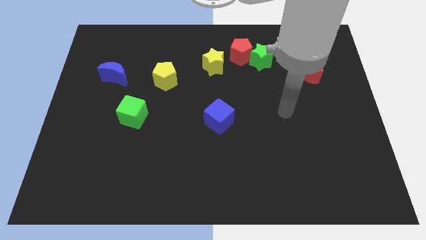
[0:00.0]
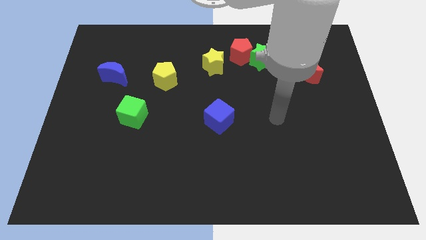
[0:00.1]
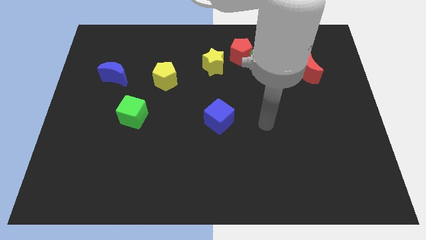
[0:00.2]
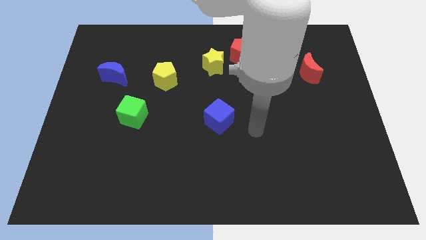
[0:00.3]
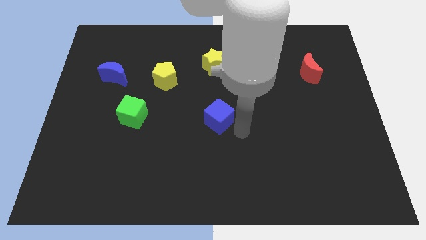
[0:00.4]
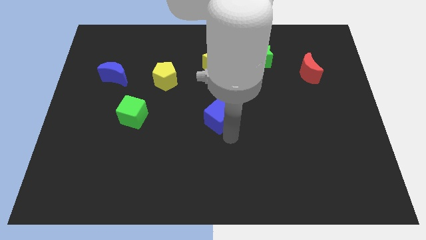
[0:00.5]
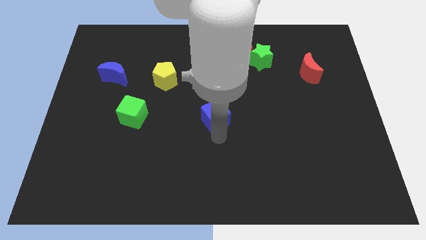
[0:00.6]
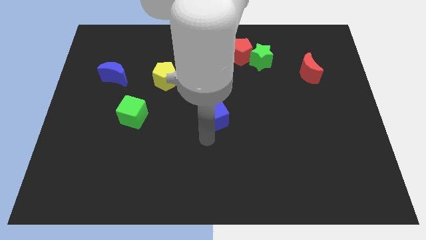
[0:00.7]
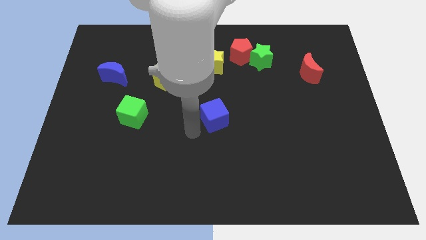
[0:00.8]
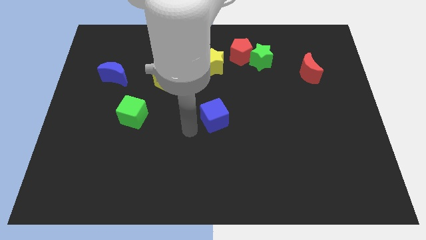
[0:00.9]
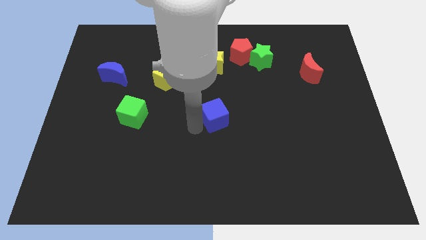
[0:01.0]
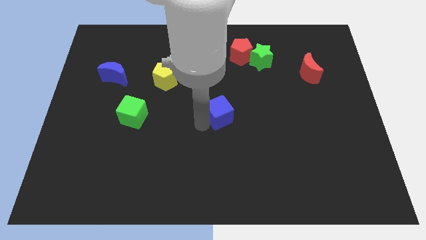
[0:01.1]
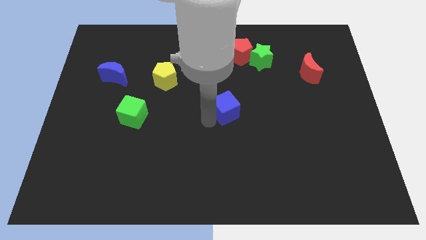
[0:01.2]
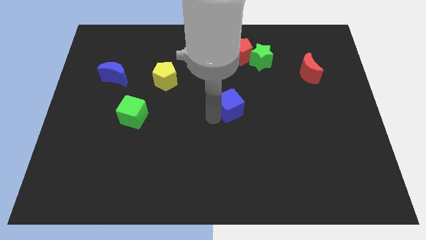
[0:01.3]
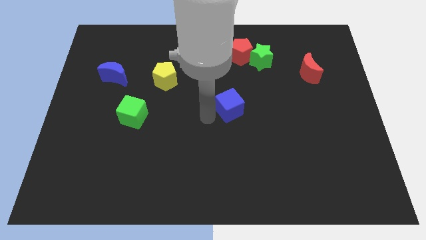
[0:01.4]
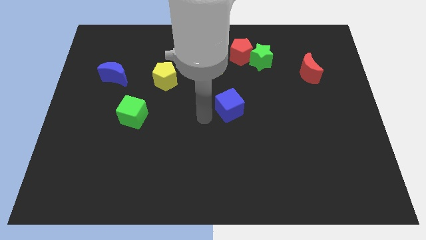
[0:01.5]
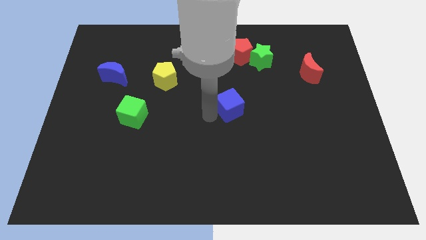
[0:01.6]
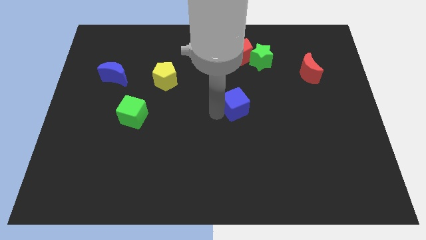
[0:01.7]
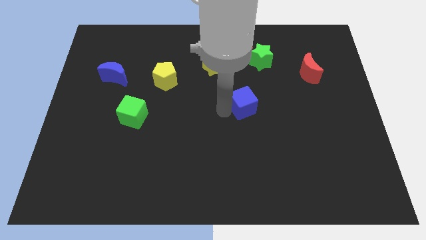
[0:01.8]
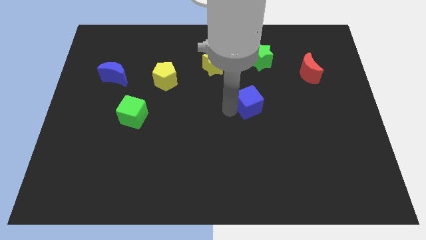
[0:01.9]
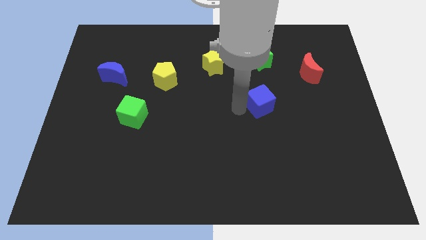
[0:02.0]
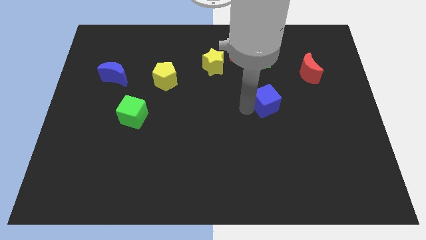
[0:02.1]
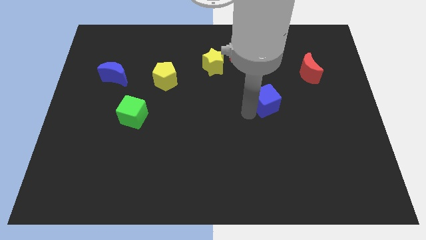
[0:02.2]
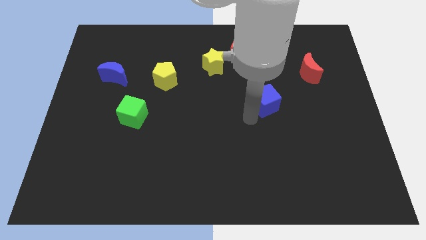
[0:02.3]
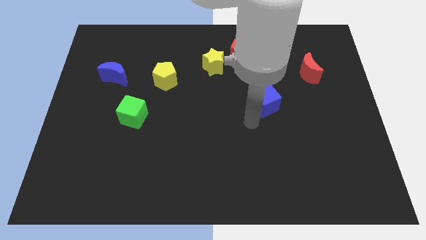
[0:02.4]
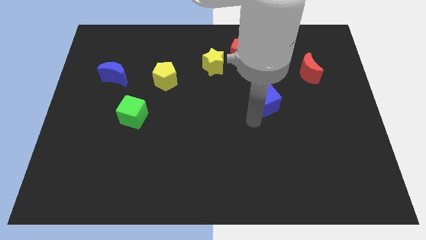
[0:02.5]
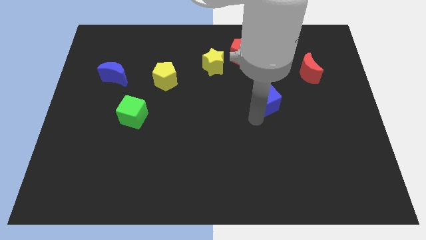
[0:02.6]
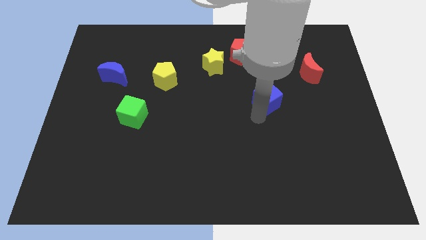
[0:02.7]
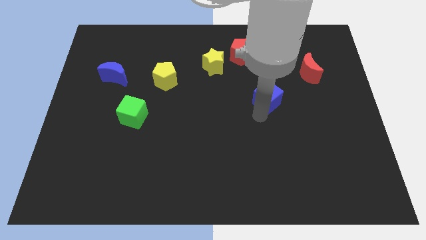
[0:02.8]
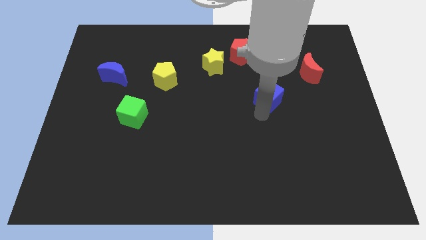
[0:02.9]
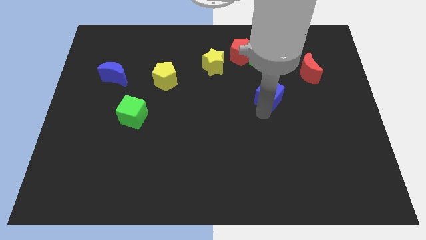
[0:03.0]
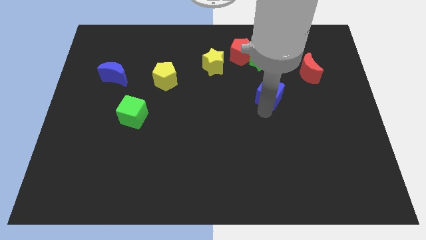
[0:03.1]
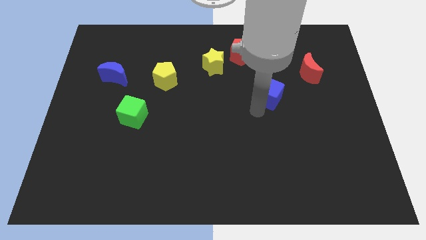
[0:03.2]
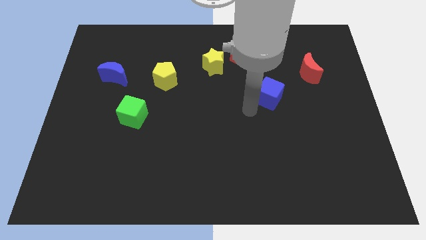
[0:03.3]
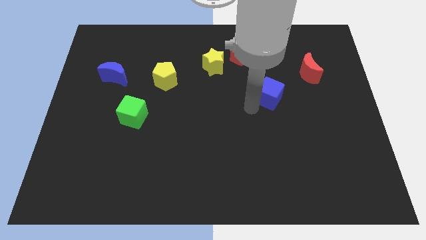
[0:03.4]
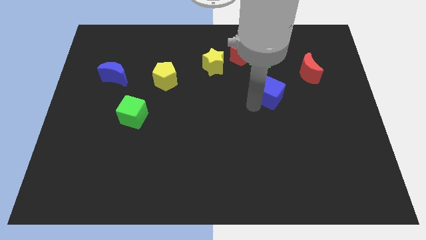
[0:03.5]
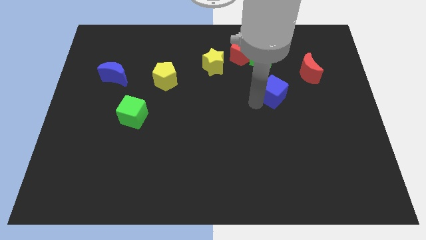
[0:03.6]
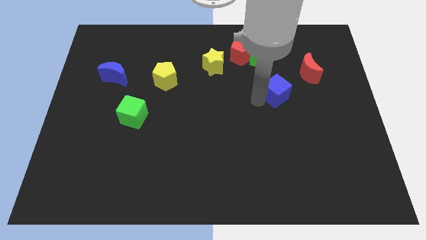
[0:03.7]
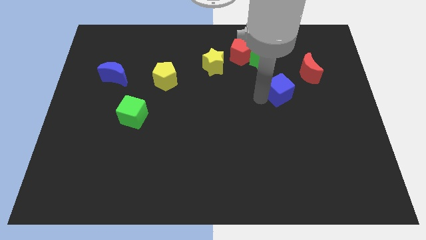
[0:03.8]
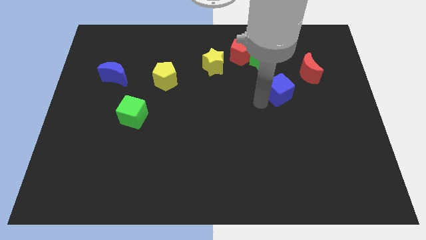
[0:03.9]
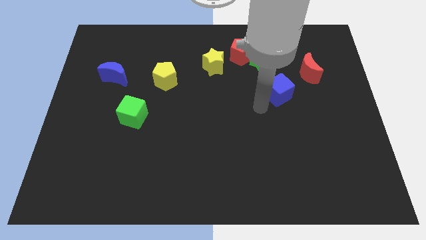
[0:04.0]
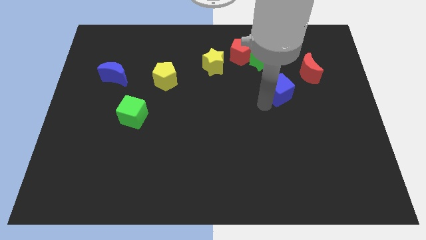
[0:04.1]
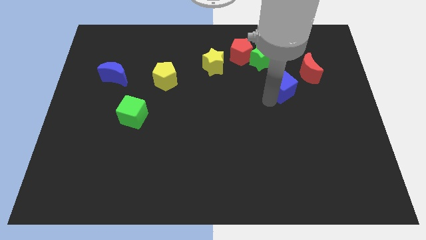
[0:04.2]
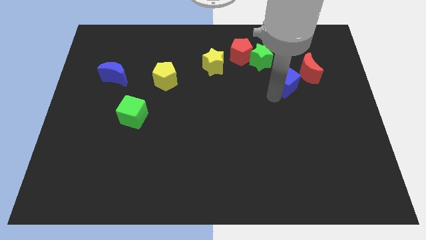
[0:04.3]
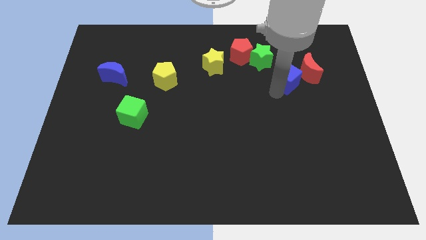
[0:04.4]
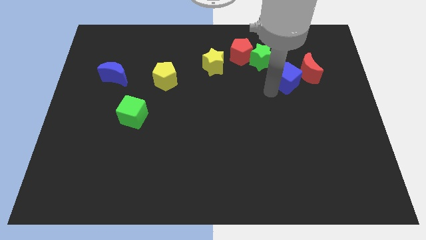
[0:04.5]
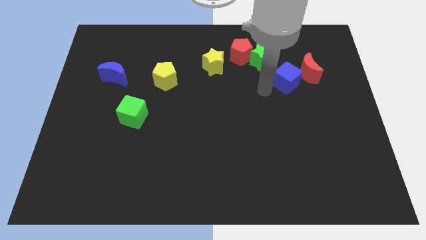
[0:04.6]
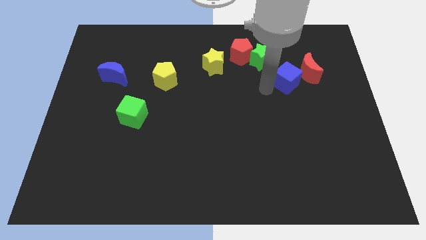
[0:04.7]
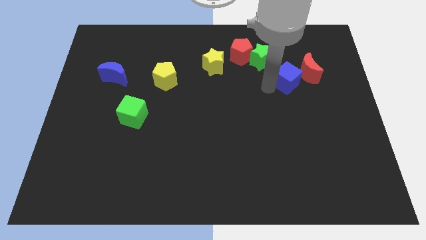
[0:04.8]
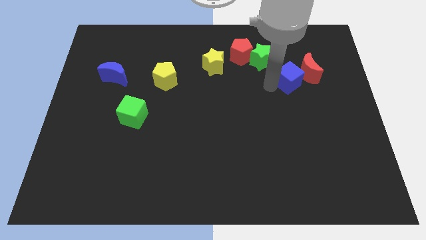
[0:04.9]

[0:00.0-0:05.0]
put the blue cube to the red moon

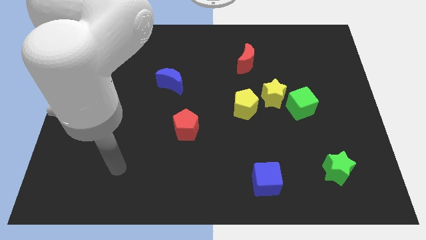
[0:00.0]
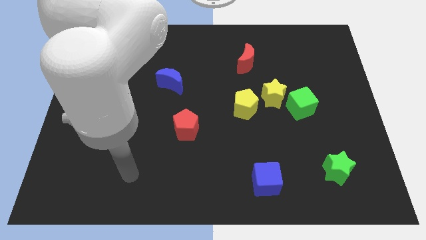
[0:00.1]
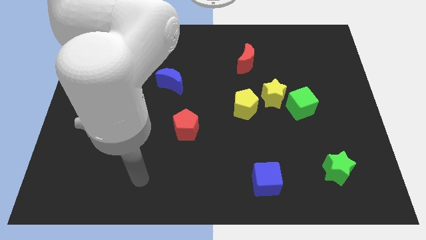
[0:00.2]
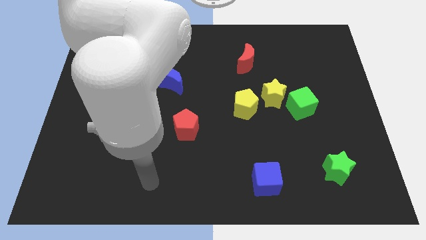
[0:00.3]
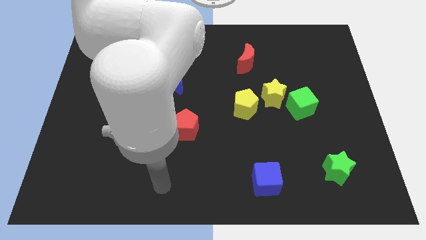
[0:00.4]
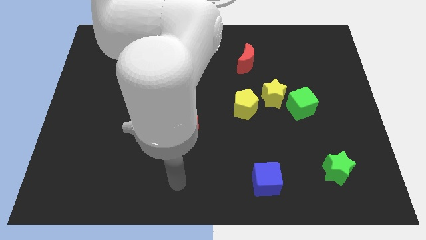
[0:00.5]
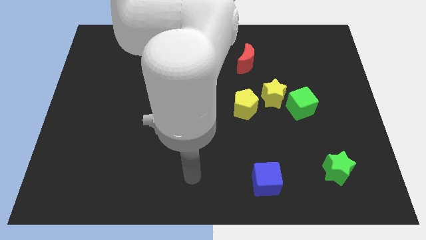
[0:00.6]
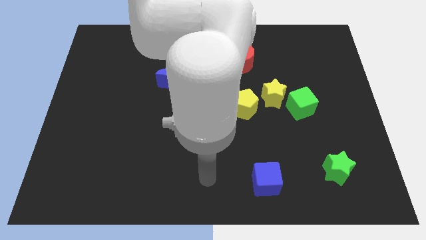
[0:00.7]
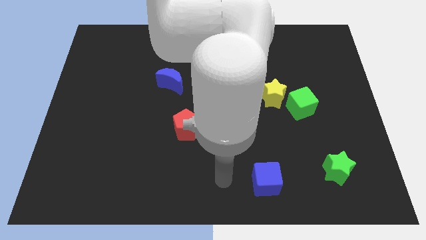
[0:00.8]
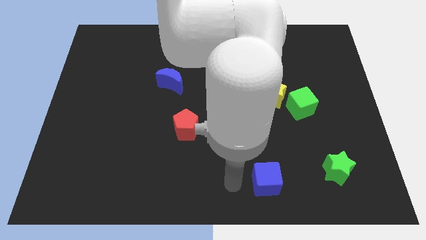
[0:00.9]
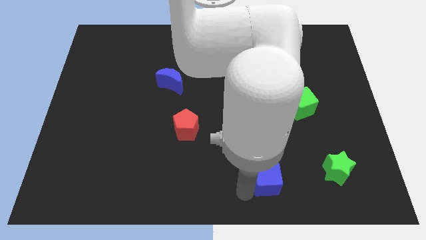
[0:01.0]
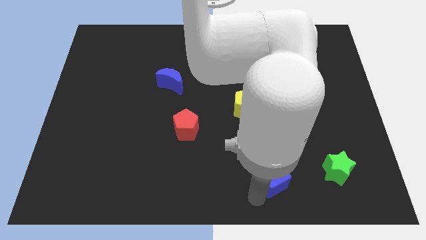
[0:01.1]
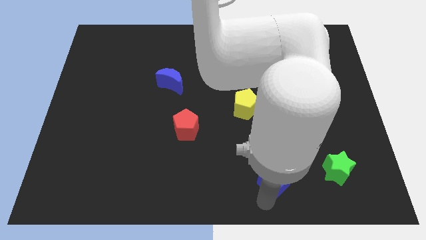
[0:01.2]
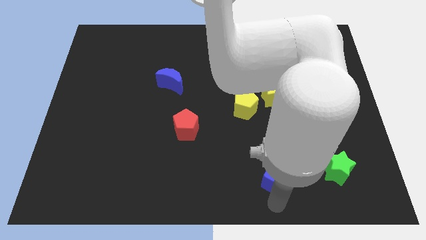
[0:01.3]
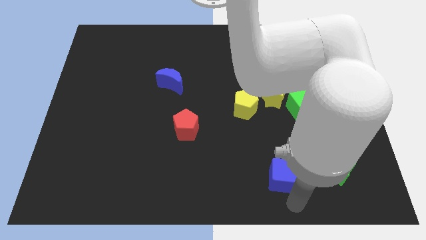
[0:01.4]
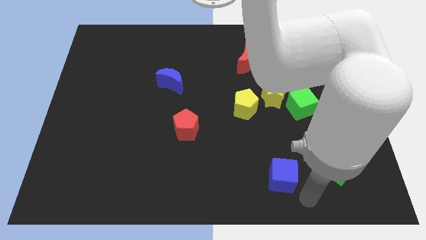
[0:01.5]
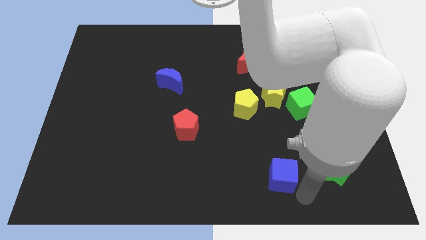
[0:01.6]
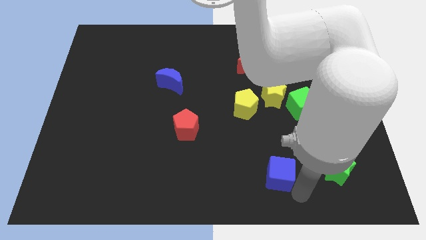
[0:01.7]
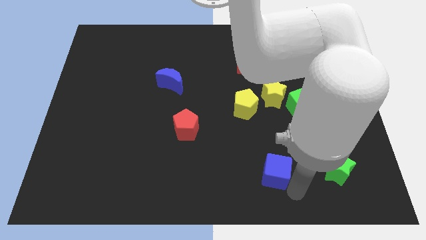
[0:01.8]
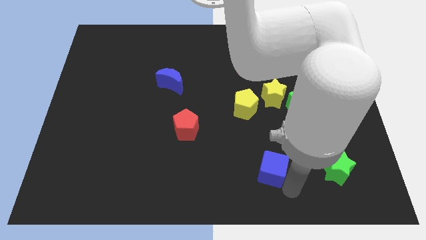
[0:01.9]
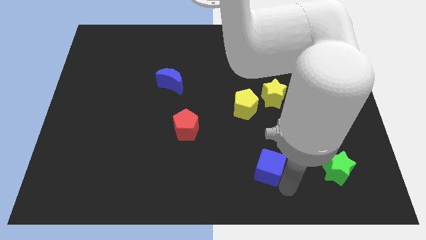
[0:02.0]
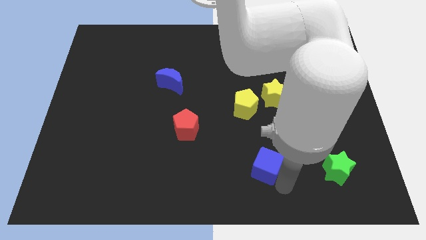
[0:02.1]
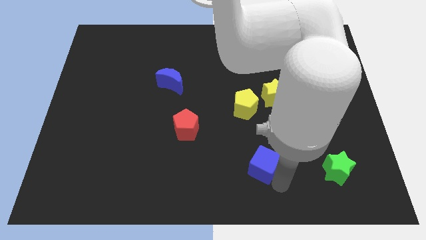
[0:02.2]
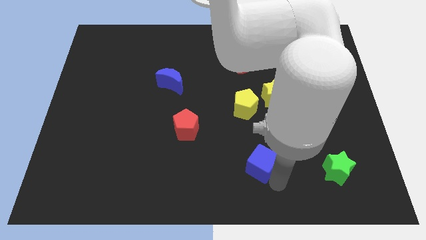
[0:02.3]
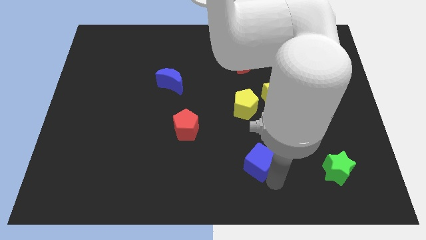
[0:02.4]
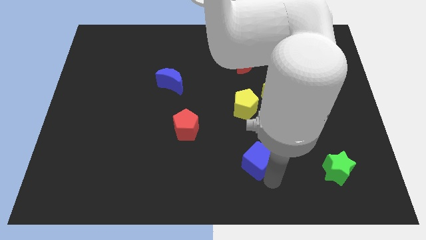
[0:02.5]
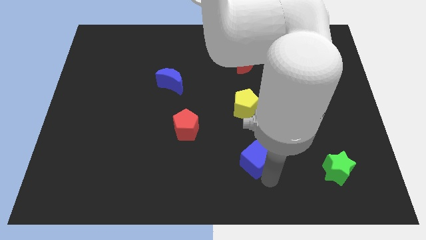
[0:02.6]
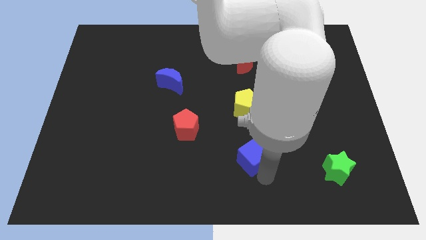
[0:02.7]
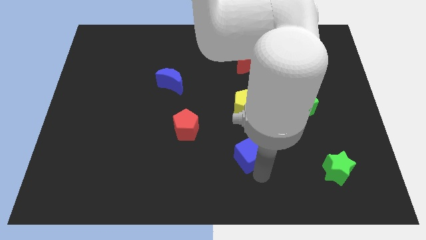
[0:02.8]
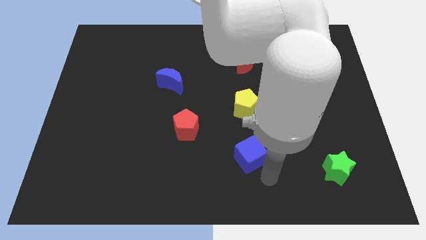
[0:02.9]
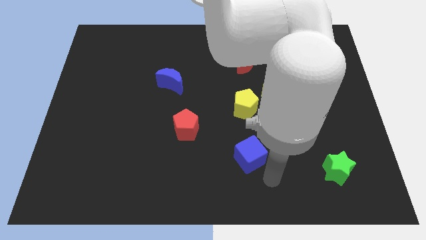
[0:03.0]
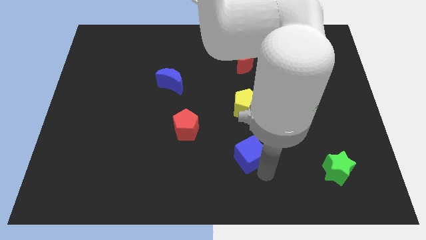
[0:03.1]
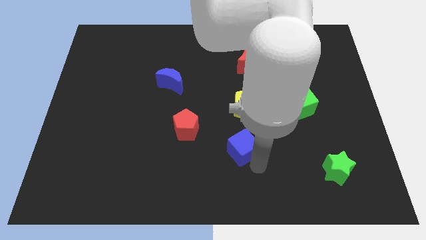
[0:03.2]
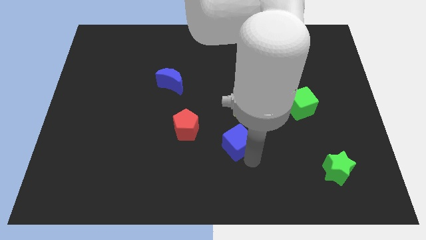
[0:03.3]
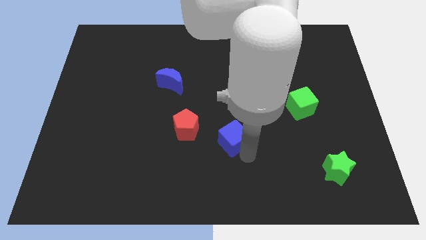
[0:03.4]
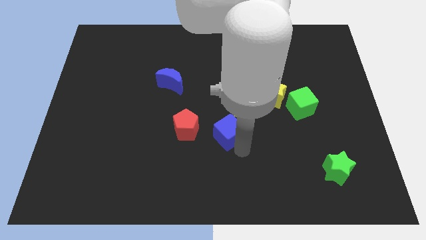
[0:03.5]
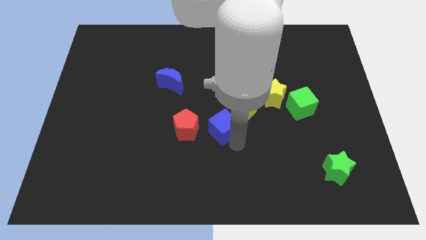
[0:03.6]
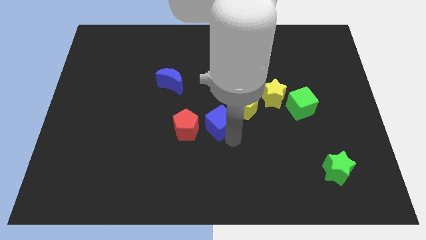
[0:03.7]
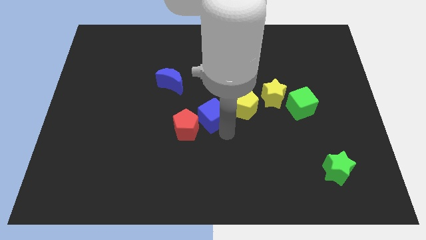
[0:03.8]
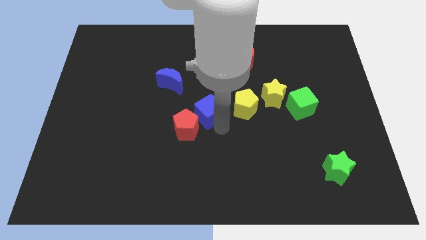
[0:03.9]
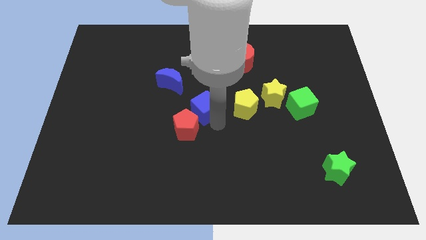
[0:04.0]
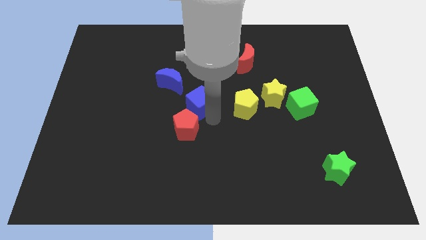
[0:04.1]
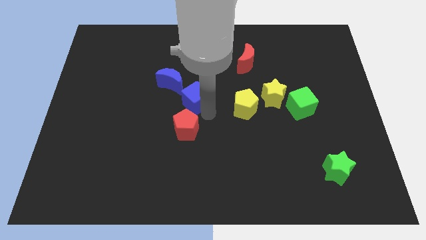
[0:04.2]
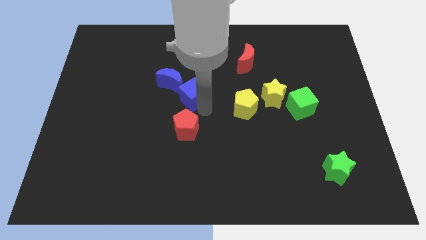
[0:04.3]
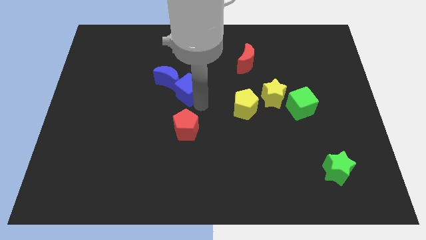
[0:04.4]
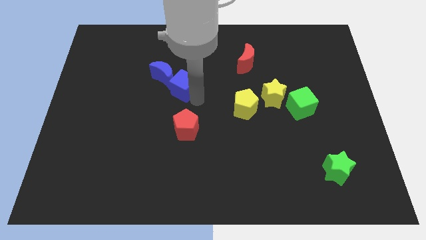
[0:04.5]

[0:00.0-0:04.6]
put the blue cube towards the blue moon
